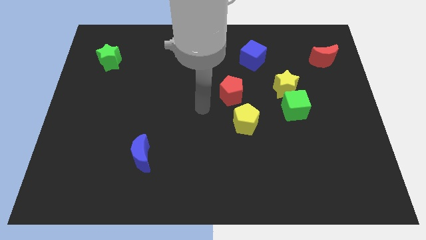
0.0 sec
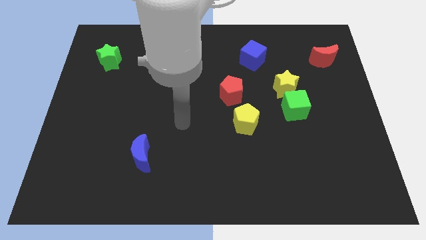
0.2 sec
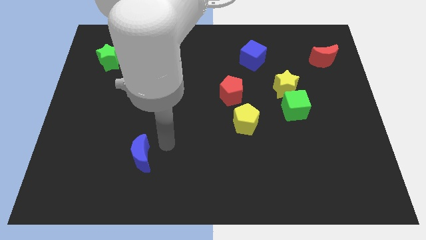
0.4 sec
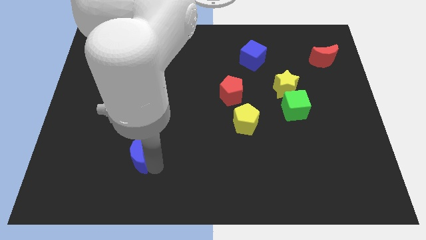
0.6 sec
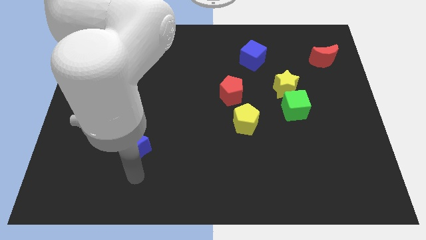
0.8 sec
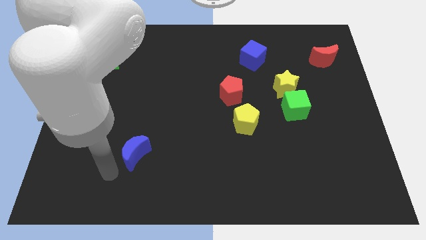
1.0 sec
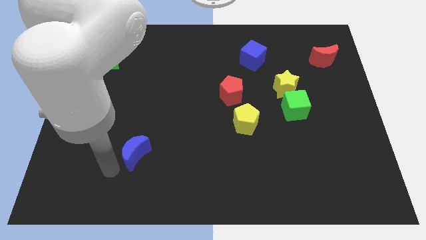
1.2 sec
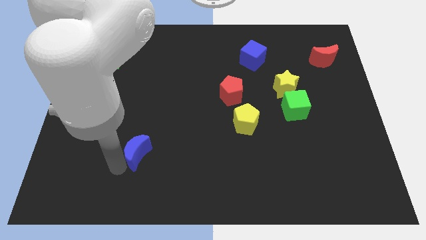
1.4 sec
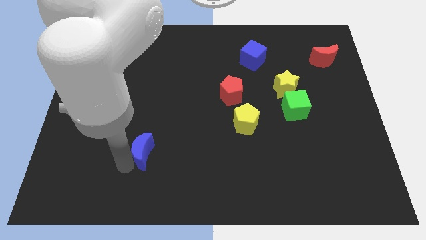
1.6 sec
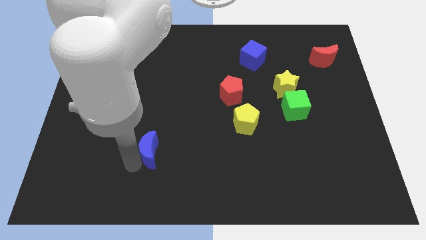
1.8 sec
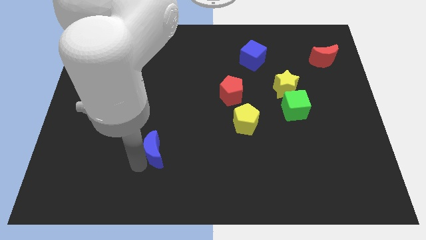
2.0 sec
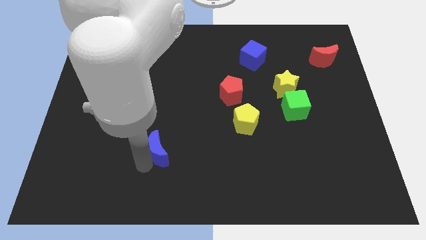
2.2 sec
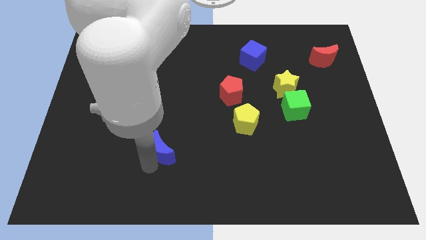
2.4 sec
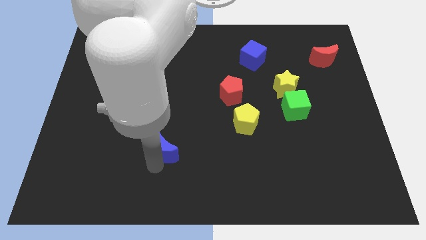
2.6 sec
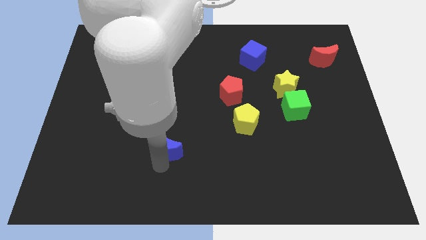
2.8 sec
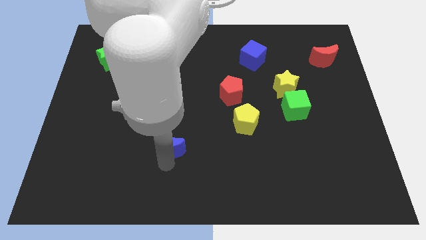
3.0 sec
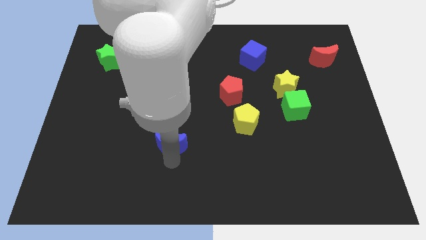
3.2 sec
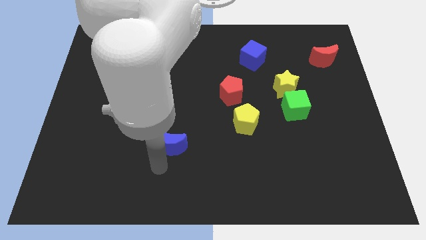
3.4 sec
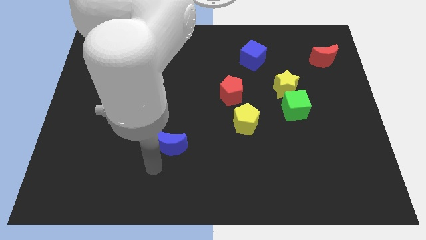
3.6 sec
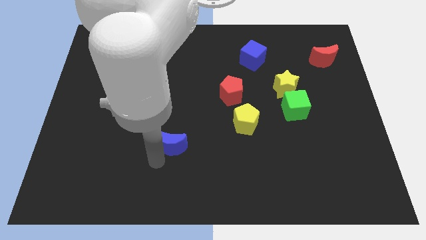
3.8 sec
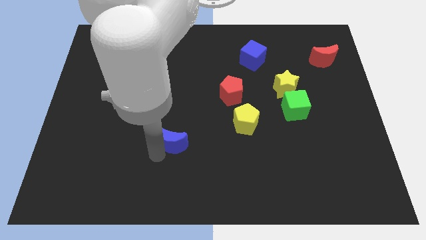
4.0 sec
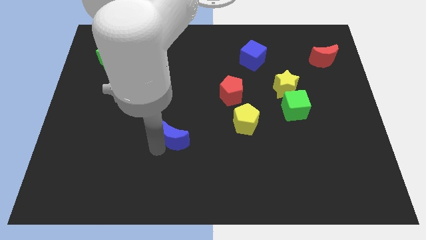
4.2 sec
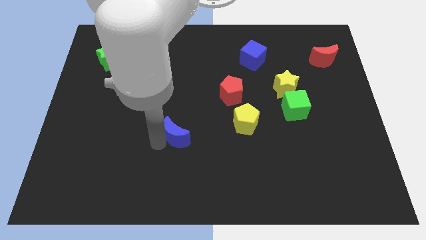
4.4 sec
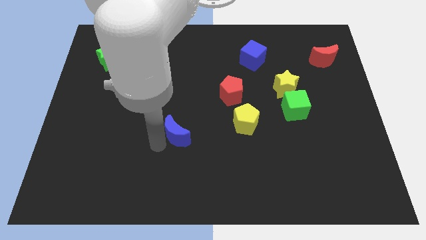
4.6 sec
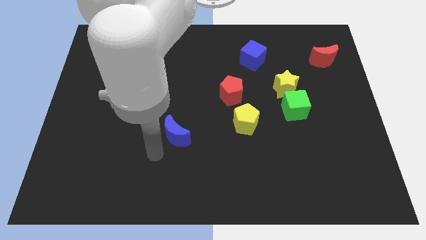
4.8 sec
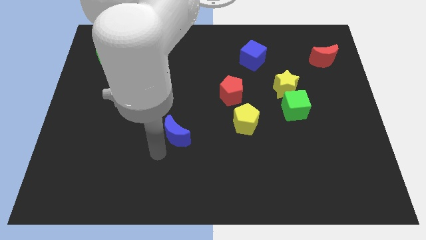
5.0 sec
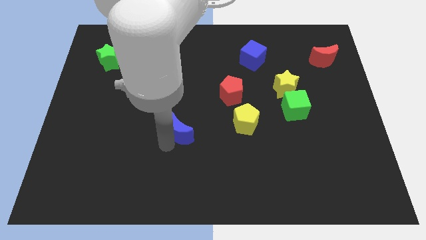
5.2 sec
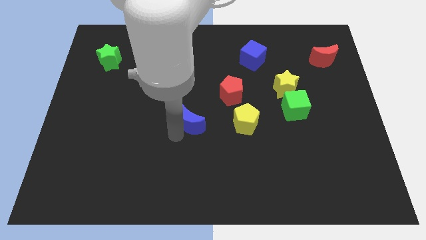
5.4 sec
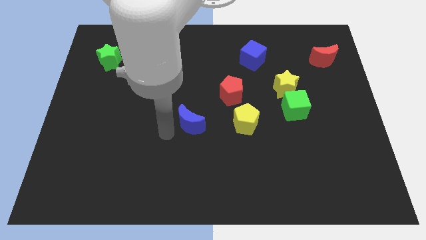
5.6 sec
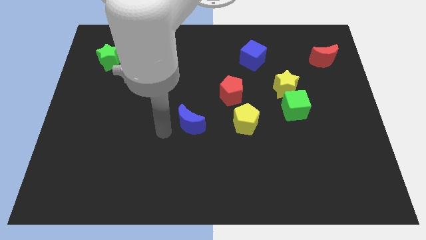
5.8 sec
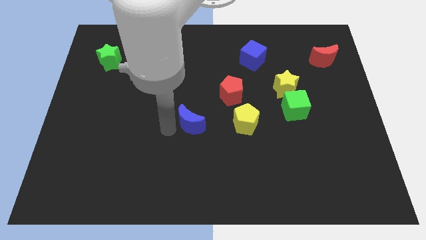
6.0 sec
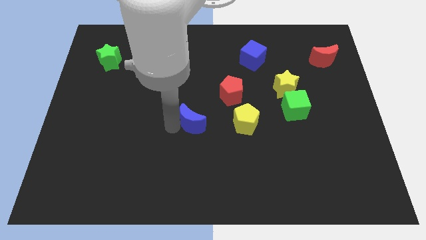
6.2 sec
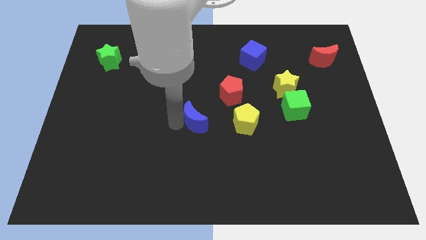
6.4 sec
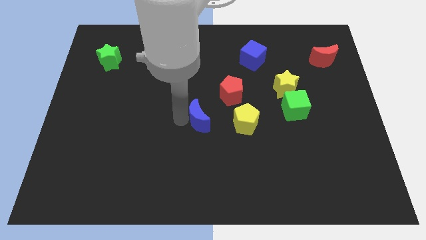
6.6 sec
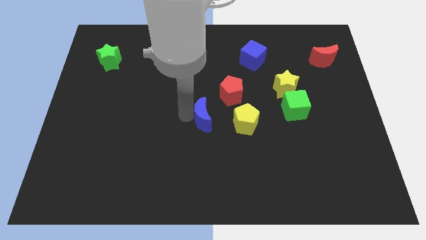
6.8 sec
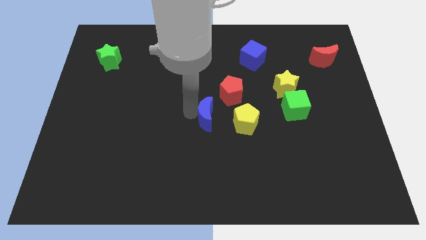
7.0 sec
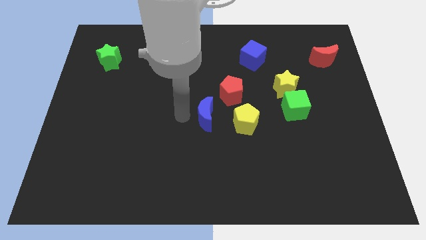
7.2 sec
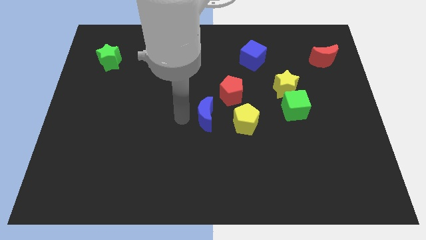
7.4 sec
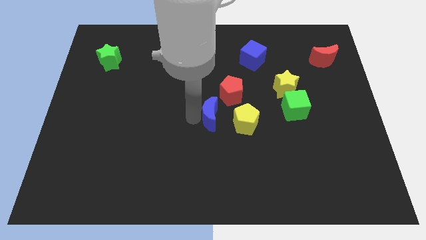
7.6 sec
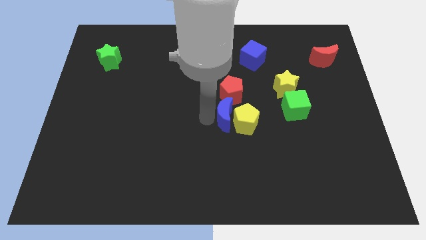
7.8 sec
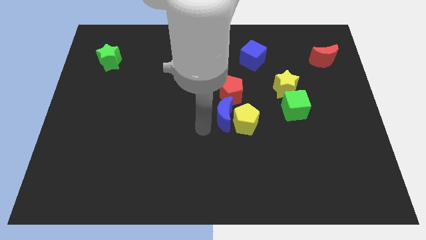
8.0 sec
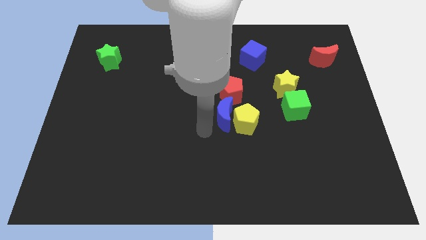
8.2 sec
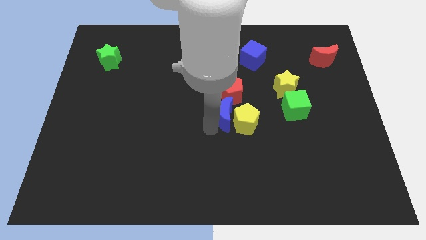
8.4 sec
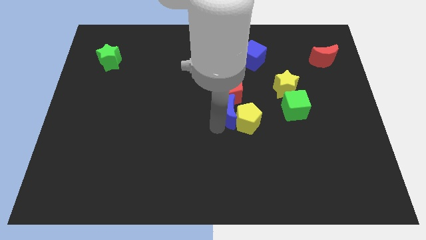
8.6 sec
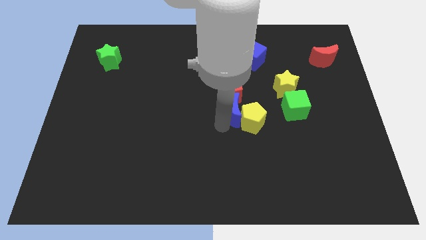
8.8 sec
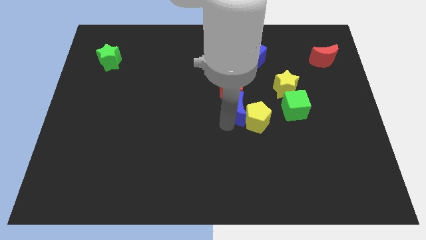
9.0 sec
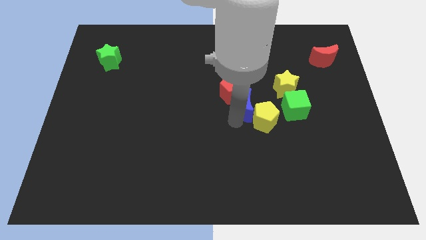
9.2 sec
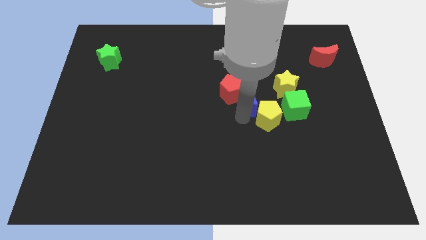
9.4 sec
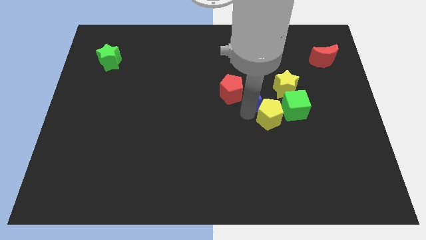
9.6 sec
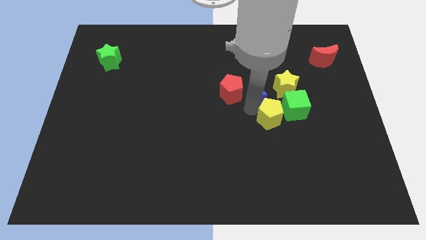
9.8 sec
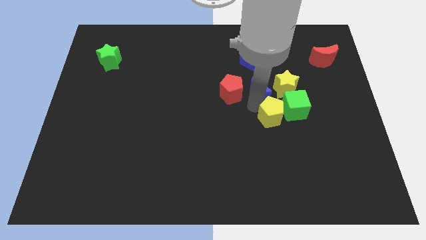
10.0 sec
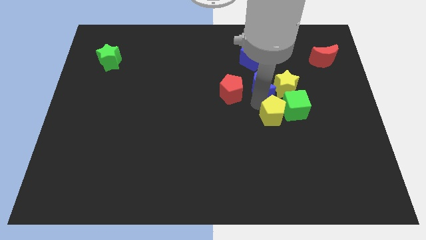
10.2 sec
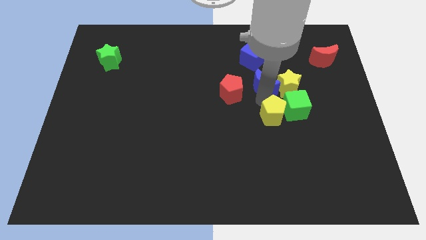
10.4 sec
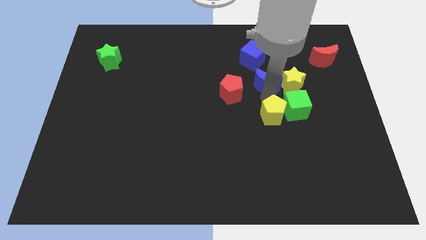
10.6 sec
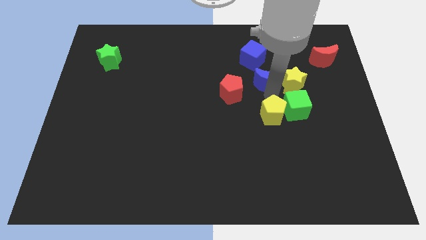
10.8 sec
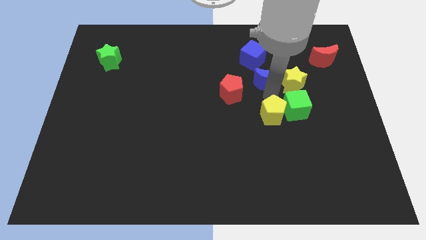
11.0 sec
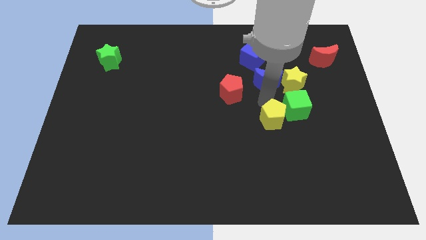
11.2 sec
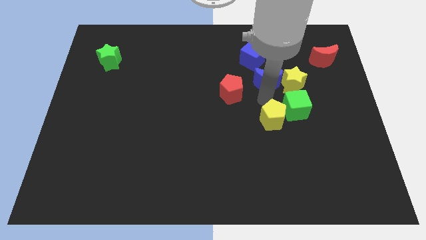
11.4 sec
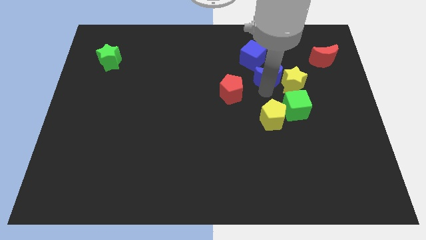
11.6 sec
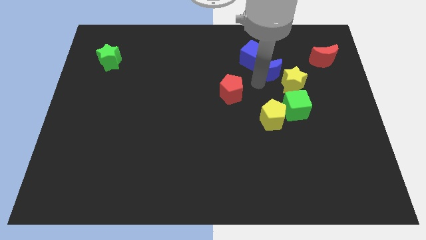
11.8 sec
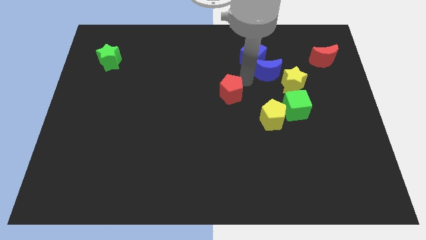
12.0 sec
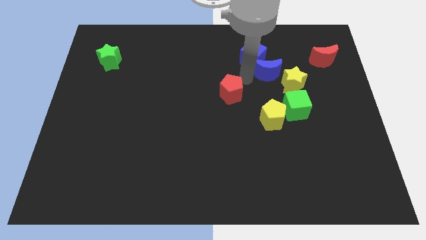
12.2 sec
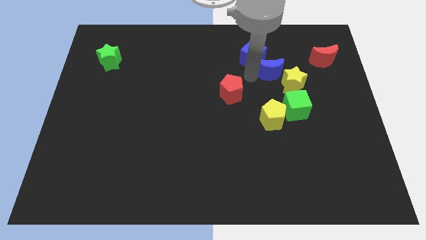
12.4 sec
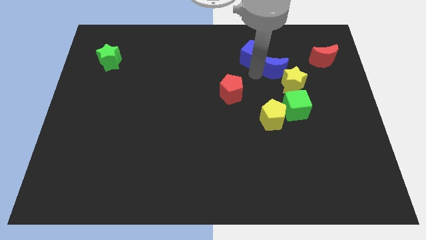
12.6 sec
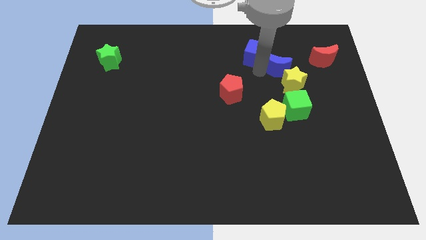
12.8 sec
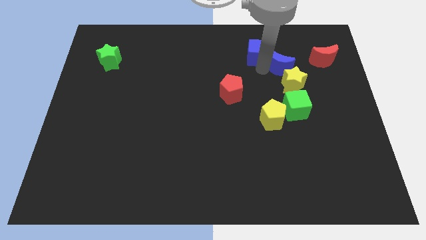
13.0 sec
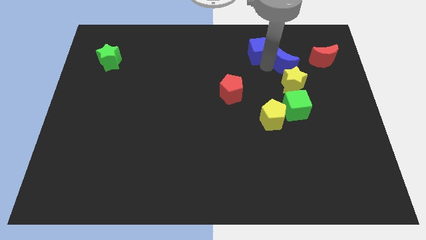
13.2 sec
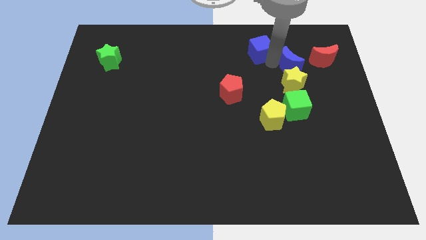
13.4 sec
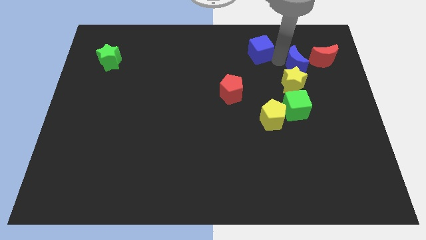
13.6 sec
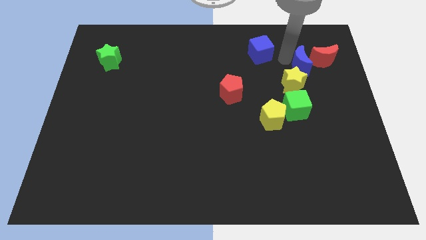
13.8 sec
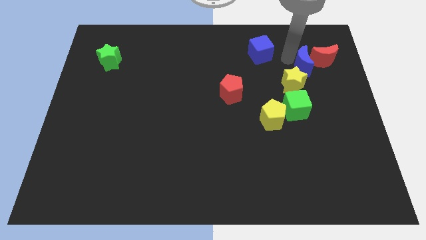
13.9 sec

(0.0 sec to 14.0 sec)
put the blue moon to the red moon
